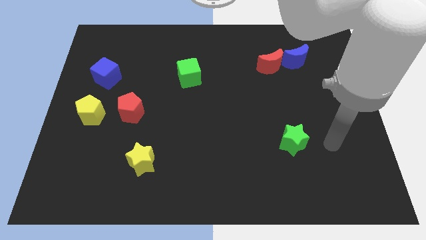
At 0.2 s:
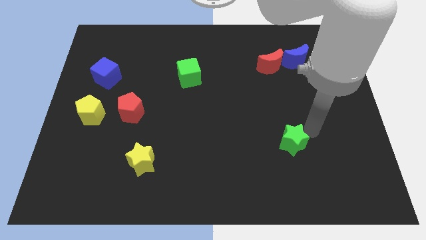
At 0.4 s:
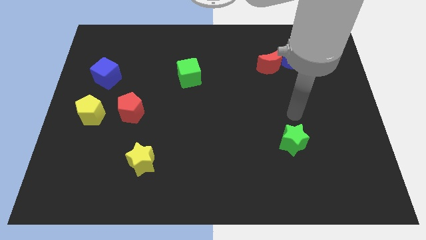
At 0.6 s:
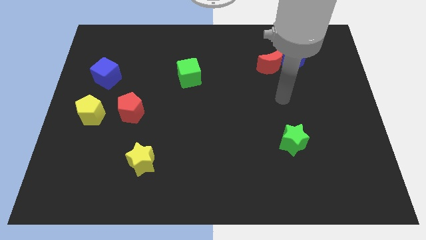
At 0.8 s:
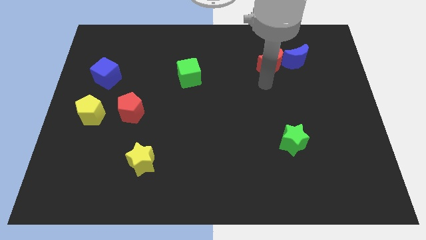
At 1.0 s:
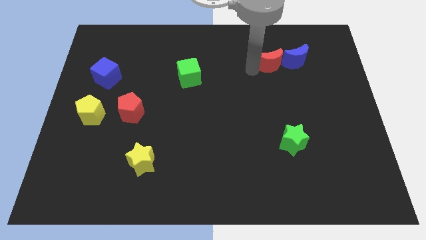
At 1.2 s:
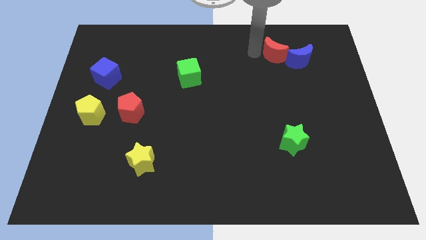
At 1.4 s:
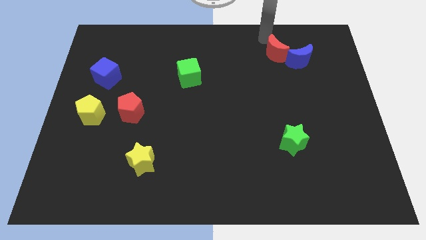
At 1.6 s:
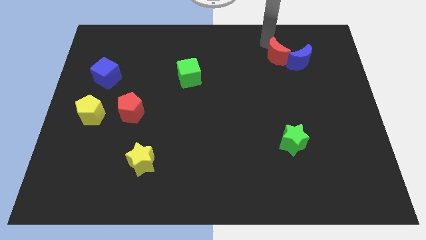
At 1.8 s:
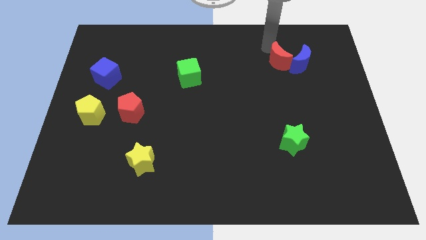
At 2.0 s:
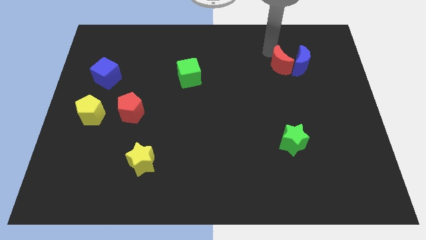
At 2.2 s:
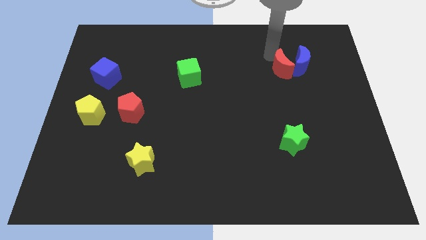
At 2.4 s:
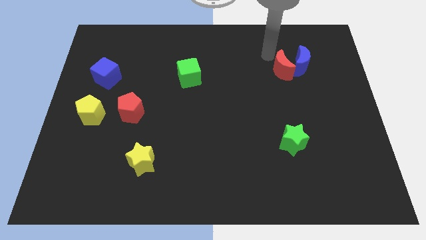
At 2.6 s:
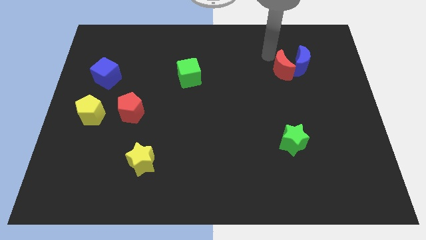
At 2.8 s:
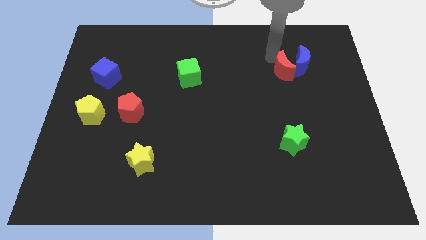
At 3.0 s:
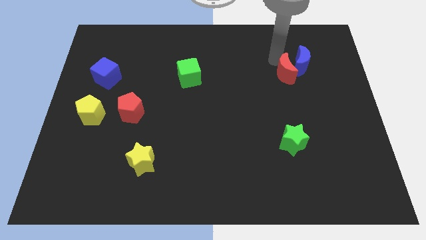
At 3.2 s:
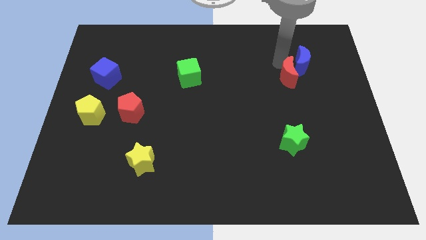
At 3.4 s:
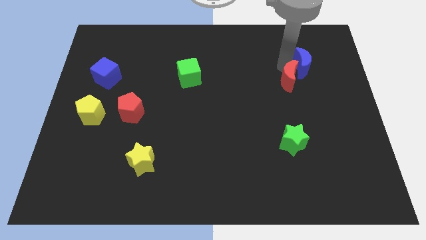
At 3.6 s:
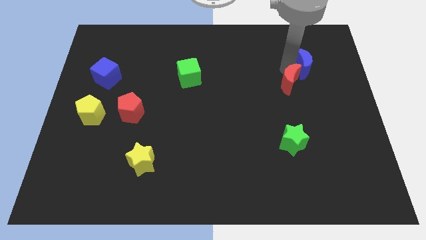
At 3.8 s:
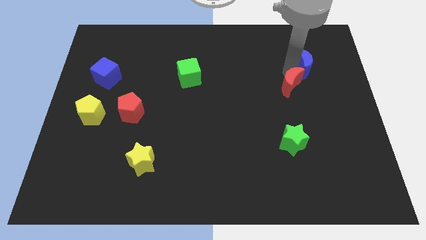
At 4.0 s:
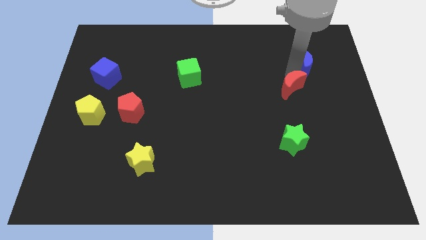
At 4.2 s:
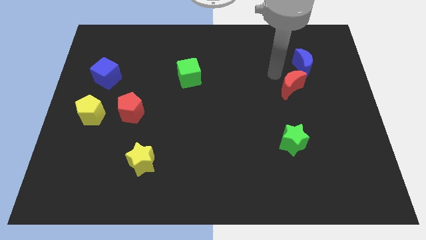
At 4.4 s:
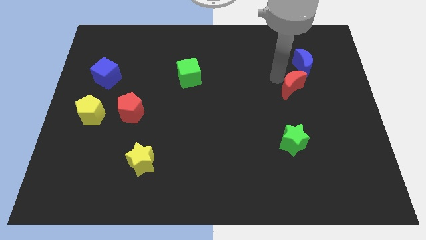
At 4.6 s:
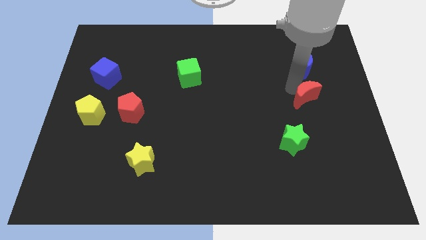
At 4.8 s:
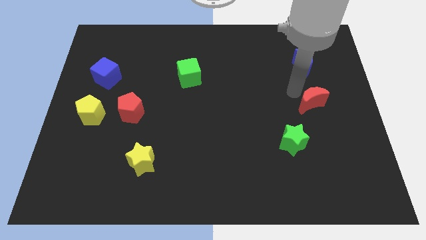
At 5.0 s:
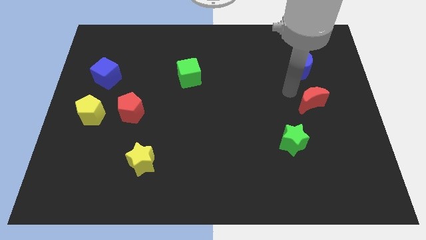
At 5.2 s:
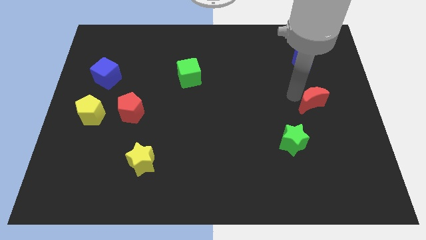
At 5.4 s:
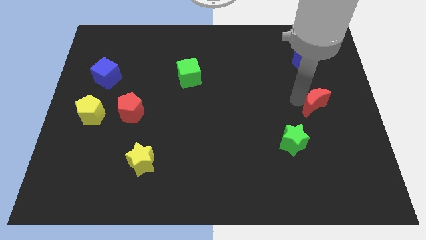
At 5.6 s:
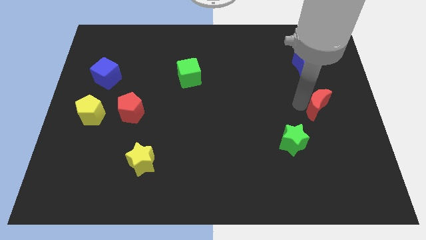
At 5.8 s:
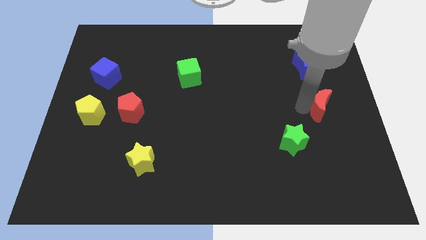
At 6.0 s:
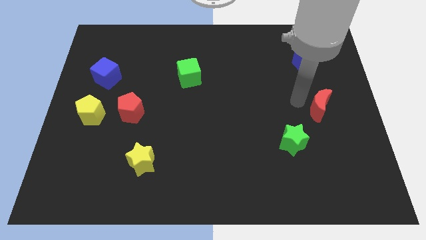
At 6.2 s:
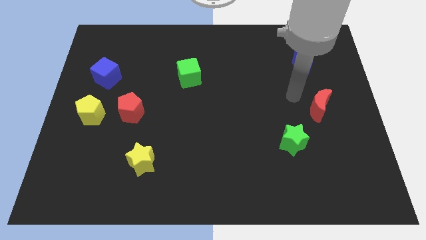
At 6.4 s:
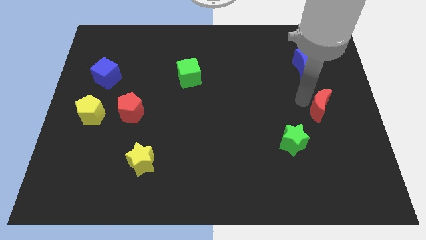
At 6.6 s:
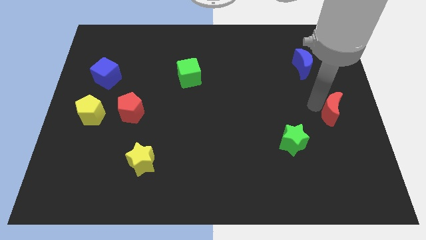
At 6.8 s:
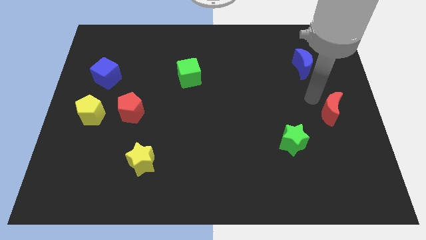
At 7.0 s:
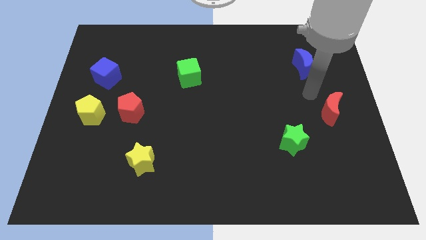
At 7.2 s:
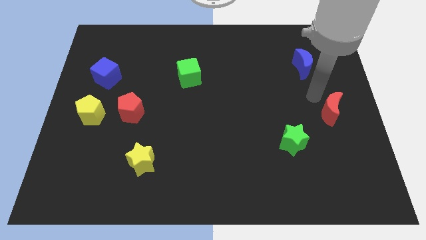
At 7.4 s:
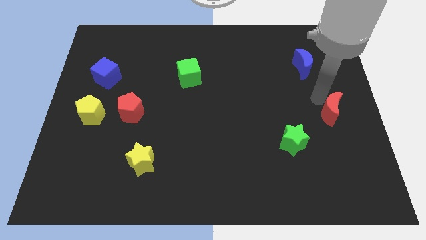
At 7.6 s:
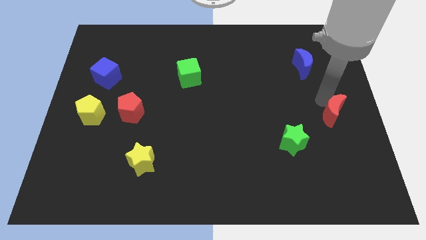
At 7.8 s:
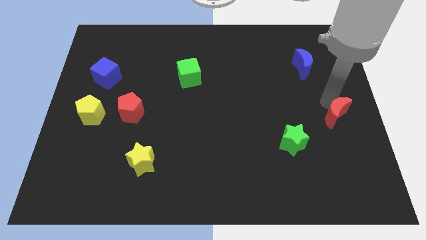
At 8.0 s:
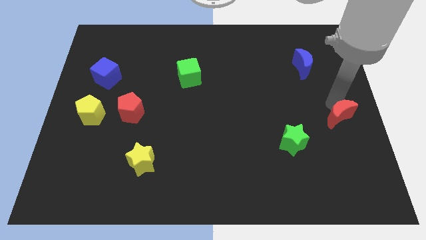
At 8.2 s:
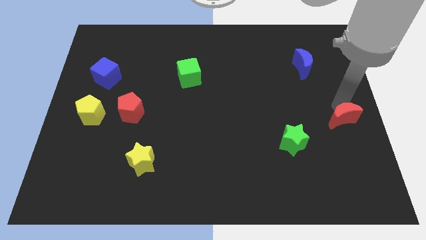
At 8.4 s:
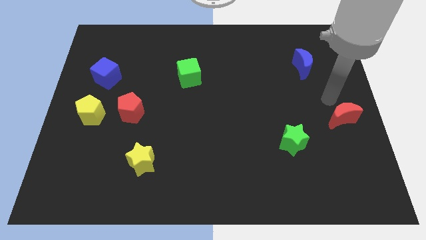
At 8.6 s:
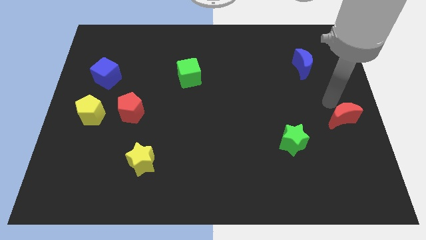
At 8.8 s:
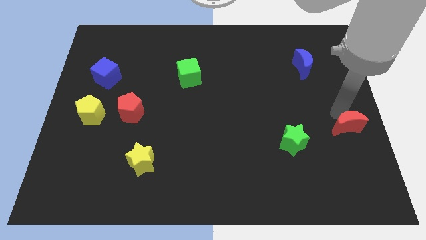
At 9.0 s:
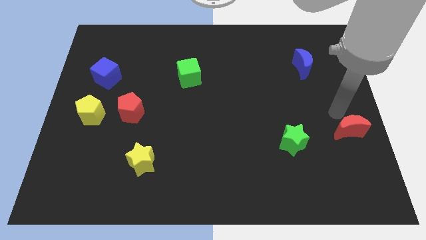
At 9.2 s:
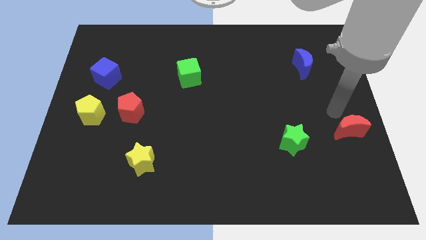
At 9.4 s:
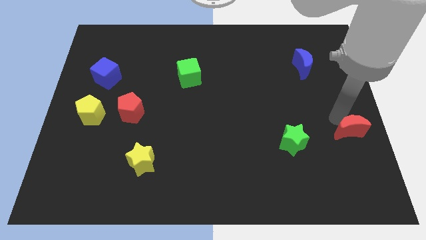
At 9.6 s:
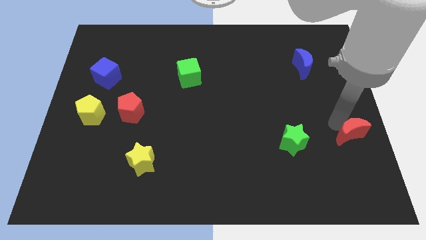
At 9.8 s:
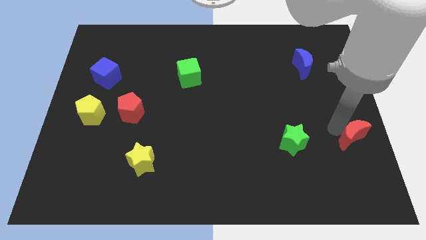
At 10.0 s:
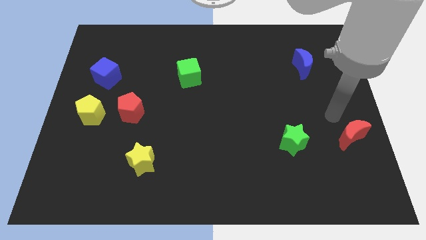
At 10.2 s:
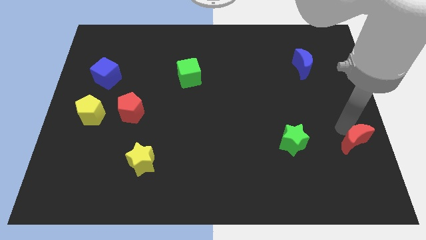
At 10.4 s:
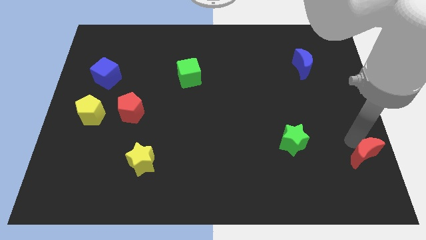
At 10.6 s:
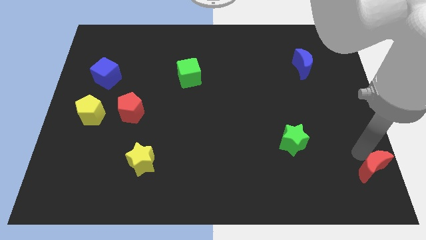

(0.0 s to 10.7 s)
move the red moon to the lower right corner

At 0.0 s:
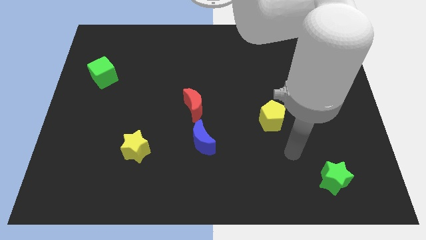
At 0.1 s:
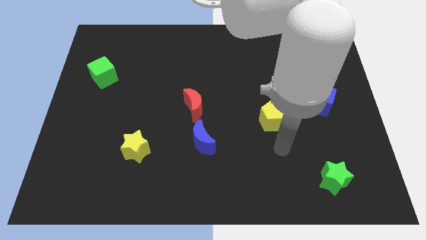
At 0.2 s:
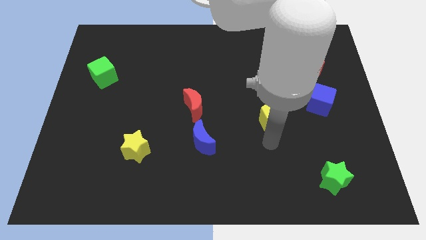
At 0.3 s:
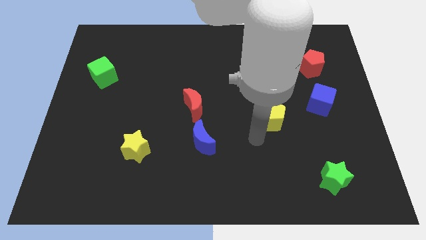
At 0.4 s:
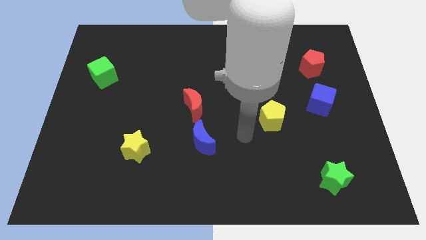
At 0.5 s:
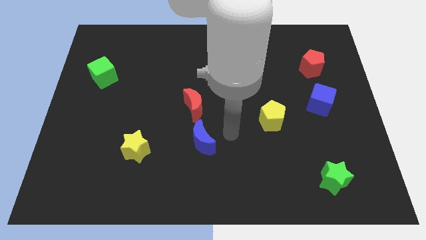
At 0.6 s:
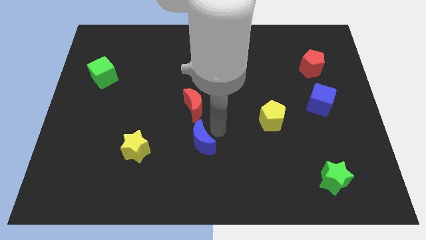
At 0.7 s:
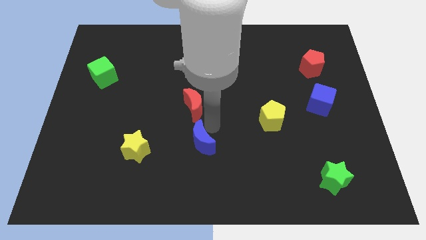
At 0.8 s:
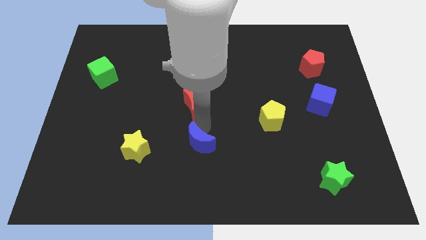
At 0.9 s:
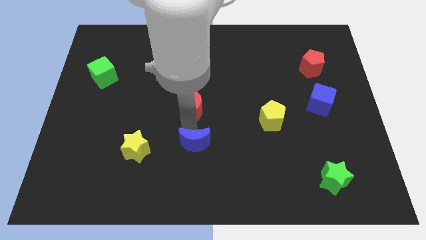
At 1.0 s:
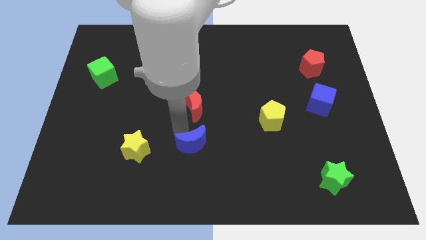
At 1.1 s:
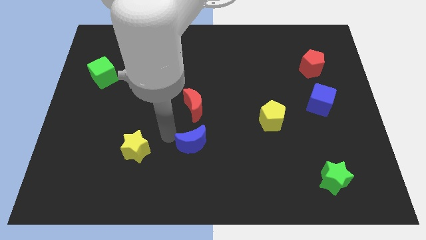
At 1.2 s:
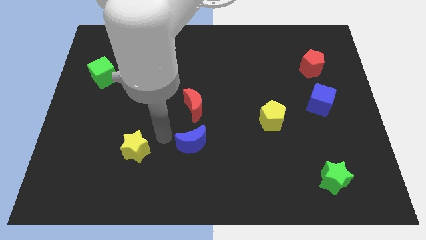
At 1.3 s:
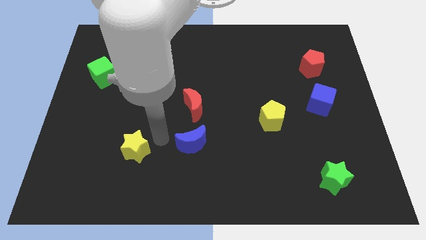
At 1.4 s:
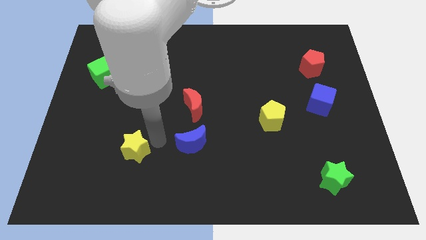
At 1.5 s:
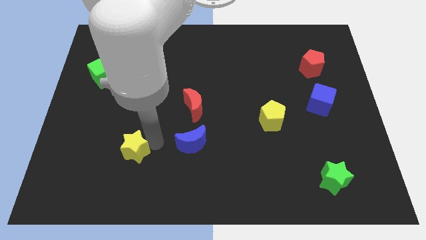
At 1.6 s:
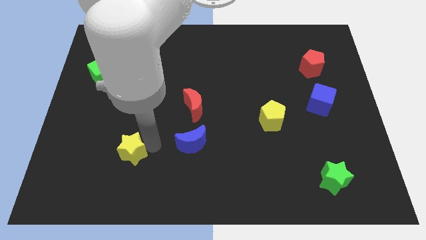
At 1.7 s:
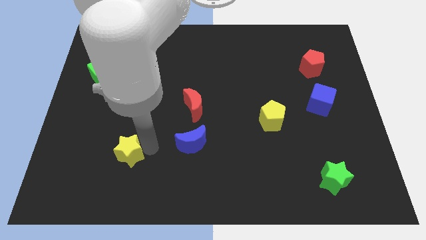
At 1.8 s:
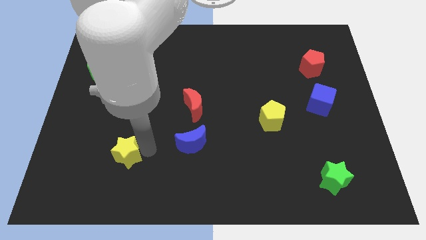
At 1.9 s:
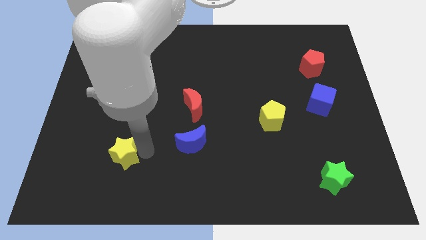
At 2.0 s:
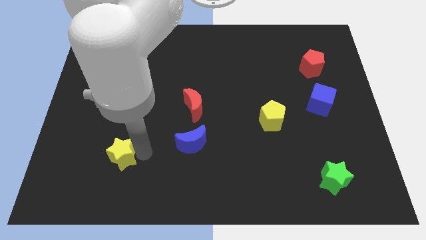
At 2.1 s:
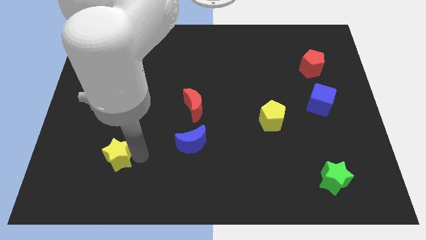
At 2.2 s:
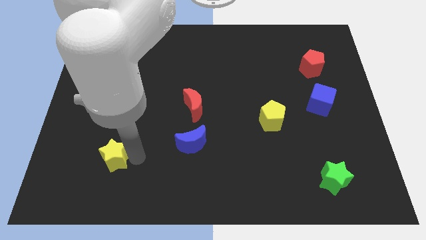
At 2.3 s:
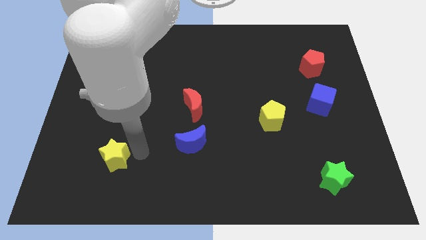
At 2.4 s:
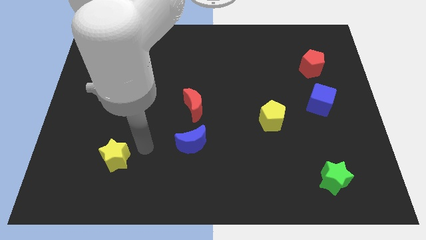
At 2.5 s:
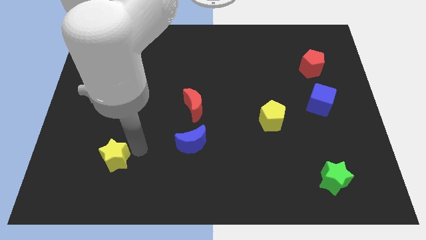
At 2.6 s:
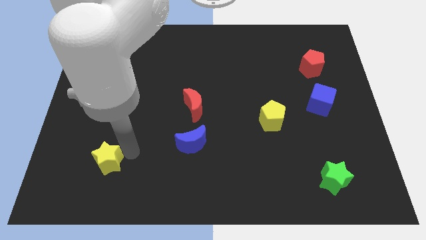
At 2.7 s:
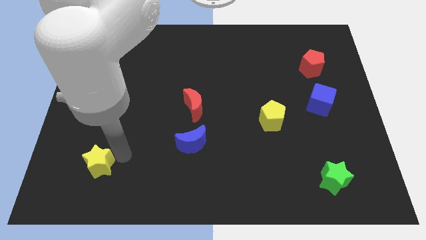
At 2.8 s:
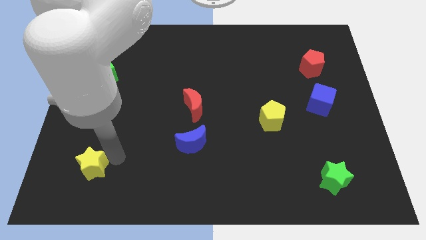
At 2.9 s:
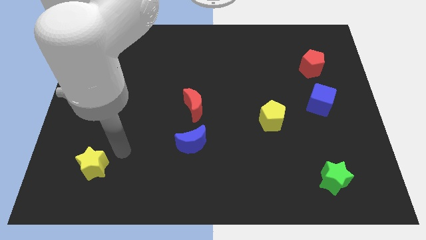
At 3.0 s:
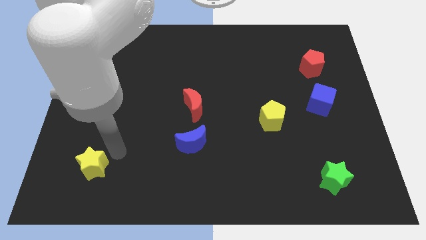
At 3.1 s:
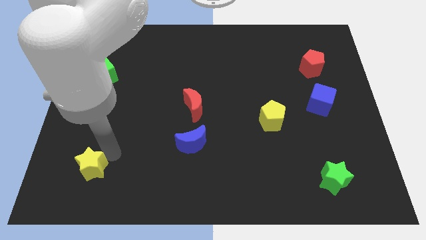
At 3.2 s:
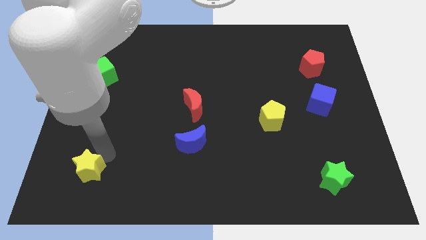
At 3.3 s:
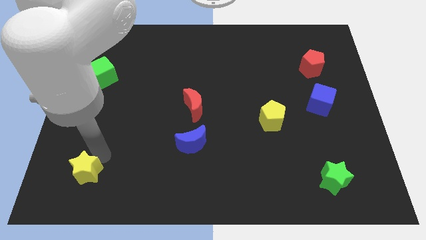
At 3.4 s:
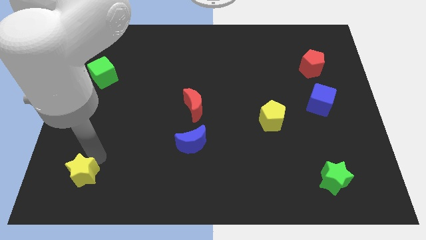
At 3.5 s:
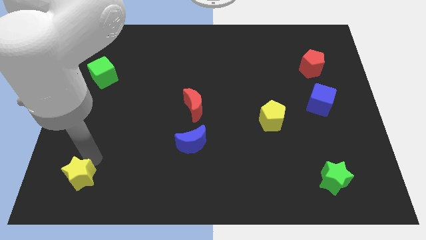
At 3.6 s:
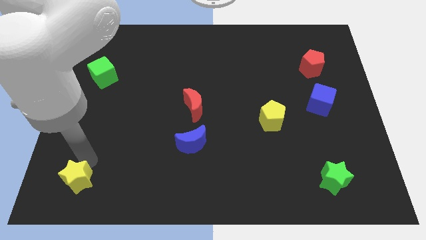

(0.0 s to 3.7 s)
push the yellow star to the bottom left corner
